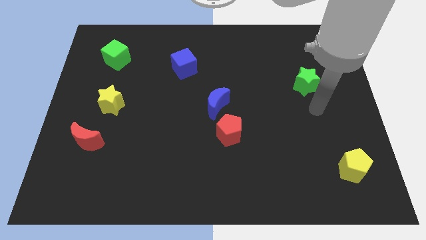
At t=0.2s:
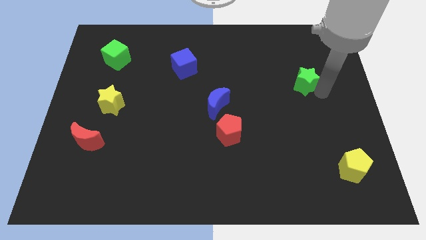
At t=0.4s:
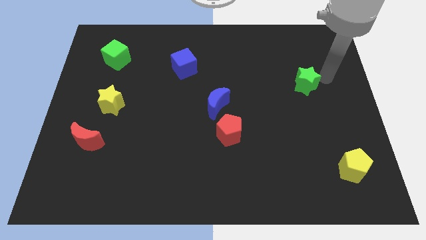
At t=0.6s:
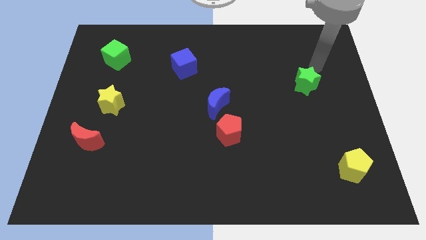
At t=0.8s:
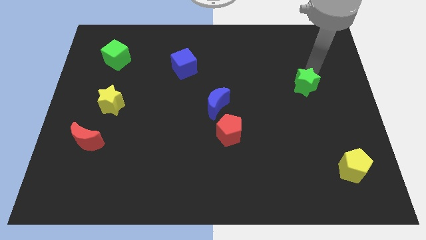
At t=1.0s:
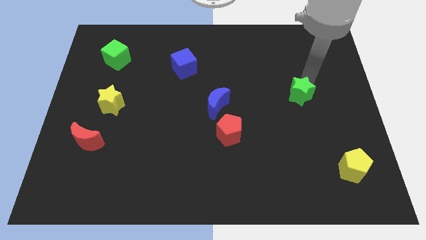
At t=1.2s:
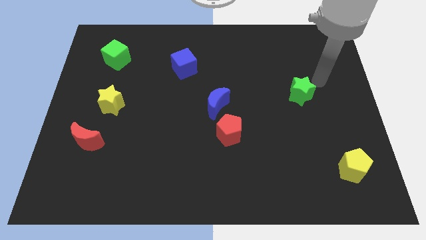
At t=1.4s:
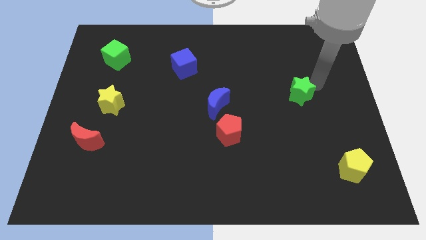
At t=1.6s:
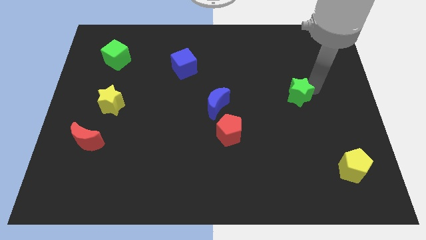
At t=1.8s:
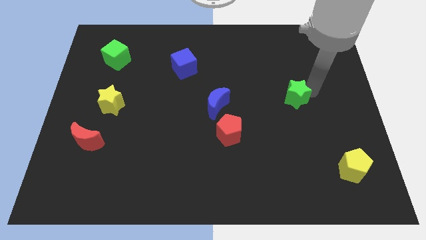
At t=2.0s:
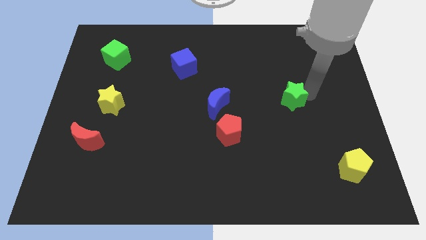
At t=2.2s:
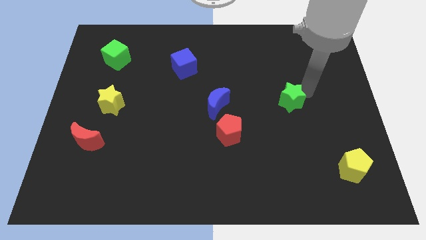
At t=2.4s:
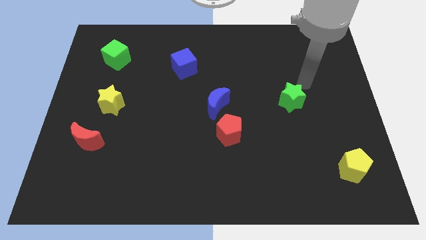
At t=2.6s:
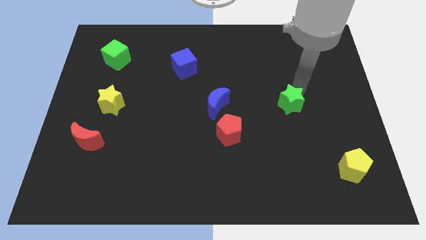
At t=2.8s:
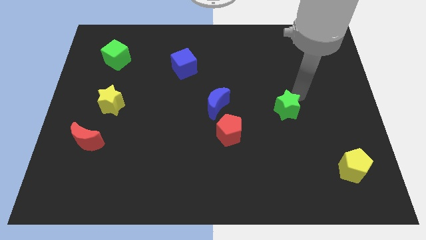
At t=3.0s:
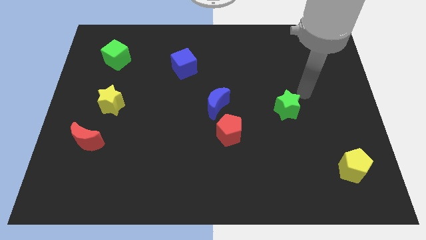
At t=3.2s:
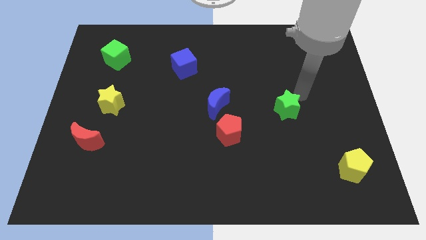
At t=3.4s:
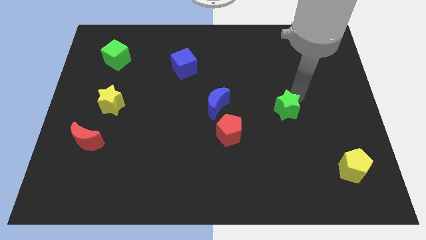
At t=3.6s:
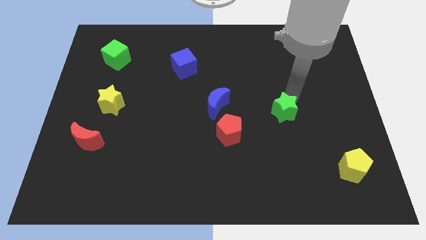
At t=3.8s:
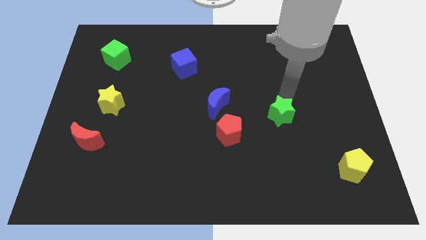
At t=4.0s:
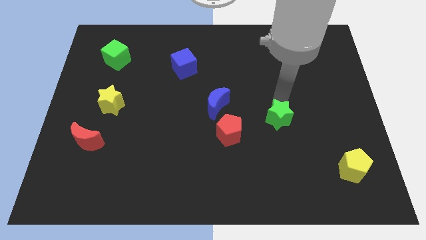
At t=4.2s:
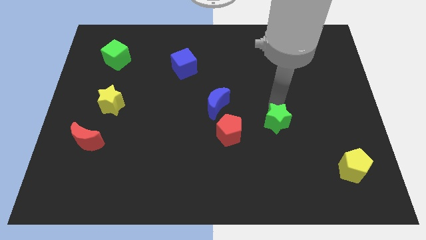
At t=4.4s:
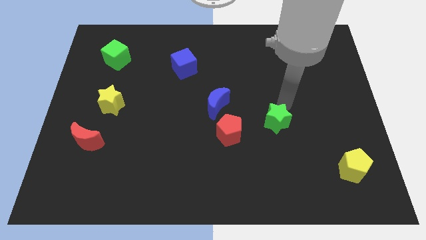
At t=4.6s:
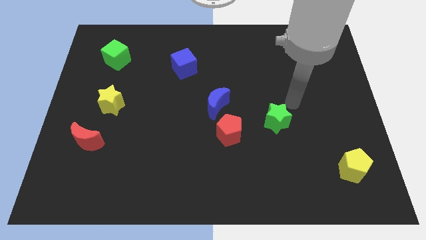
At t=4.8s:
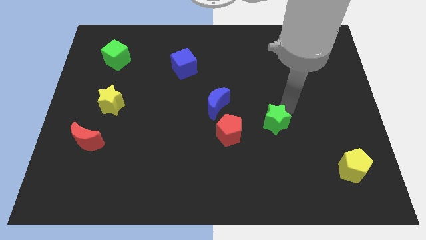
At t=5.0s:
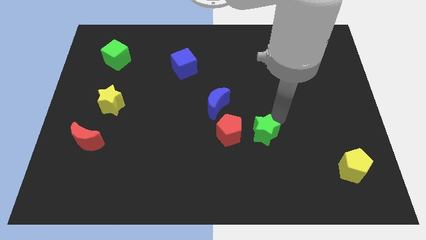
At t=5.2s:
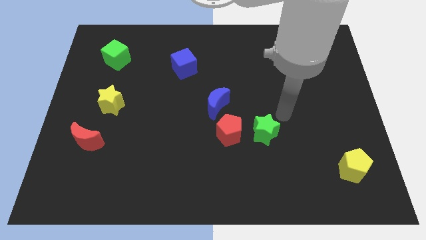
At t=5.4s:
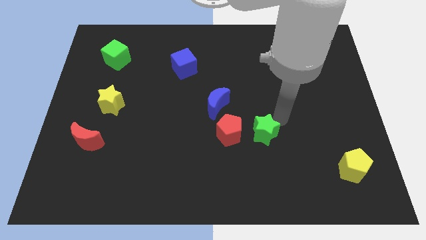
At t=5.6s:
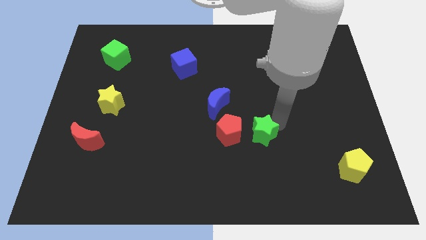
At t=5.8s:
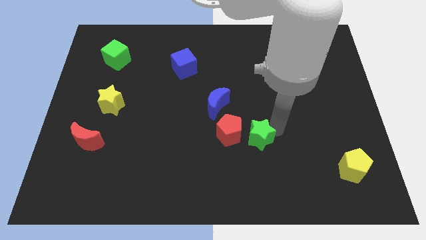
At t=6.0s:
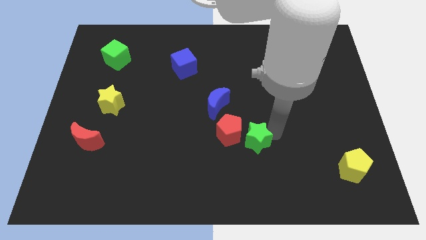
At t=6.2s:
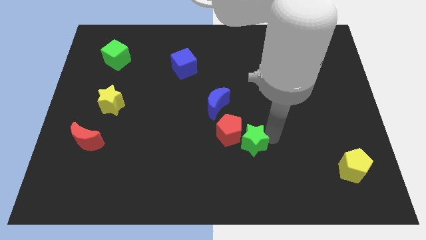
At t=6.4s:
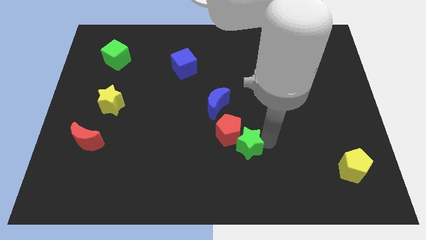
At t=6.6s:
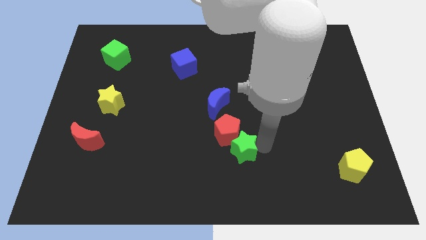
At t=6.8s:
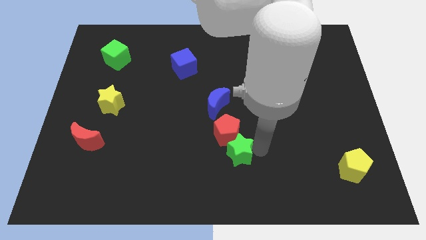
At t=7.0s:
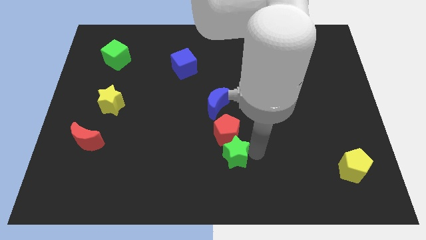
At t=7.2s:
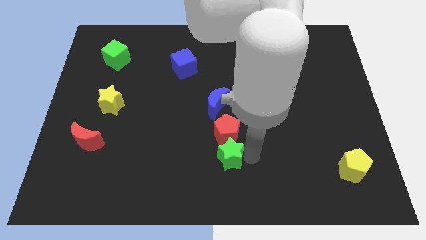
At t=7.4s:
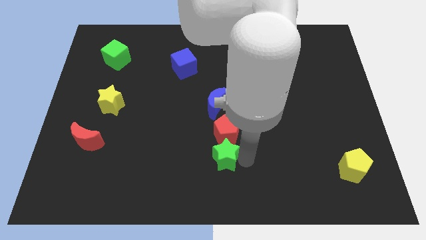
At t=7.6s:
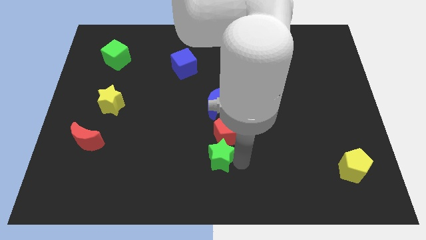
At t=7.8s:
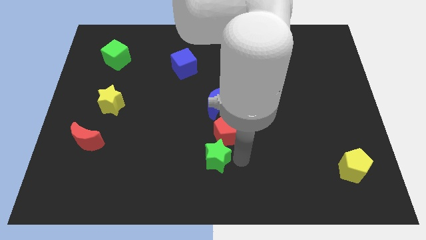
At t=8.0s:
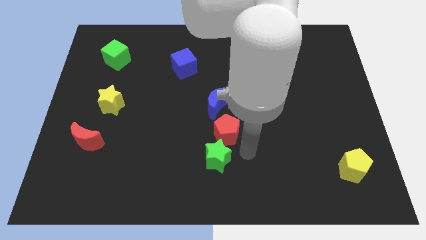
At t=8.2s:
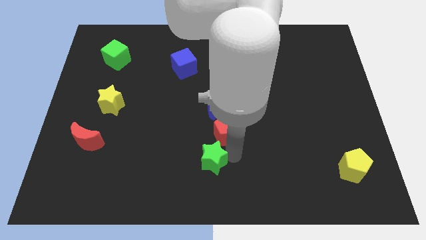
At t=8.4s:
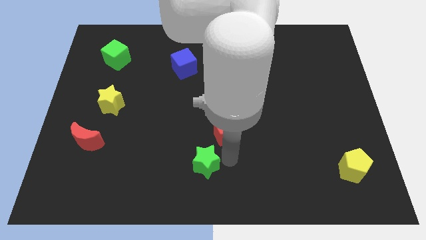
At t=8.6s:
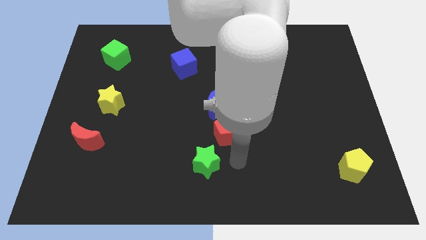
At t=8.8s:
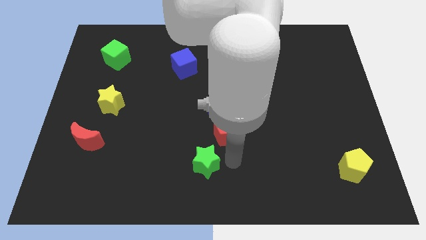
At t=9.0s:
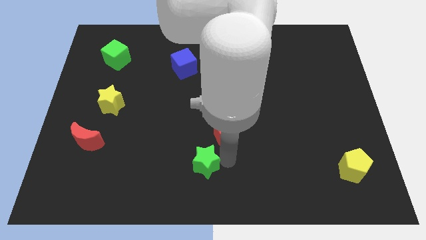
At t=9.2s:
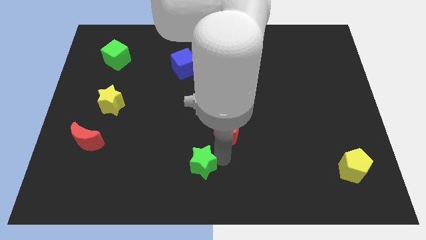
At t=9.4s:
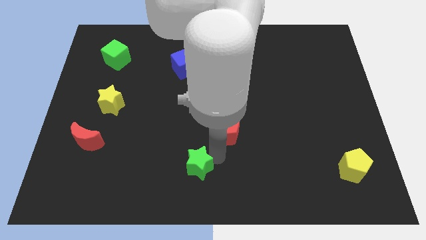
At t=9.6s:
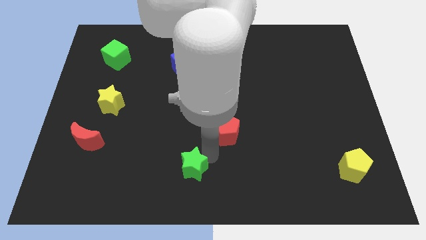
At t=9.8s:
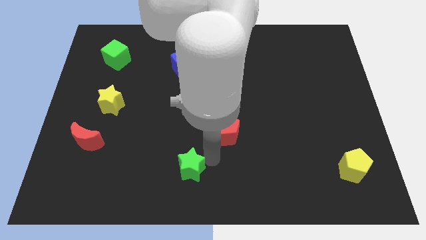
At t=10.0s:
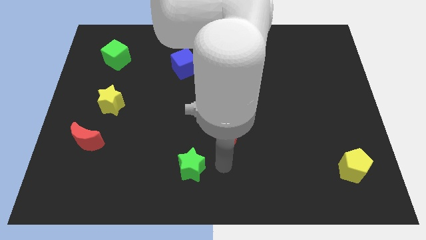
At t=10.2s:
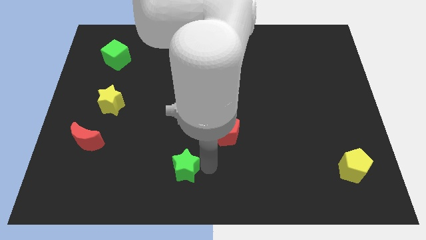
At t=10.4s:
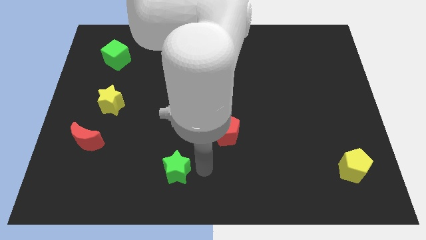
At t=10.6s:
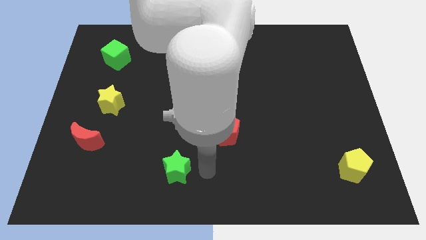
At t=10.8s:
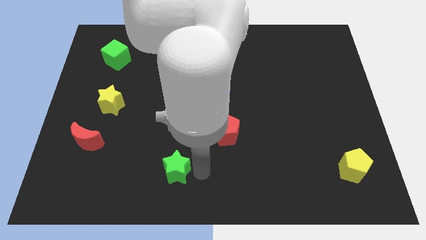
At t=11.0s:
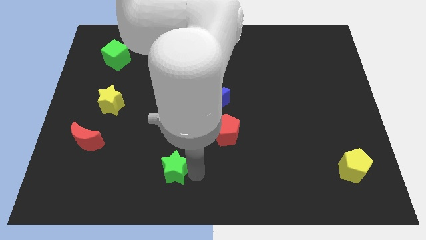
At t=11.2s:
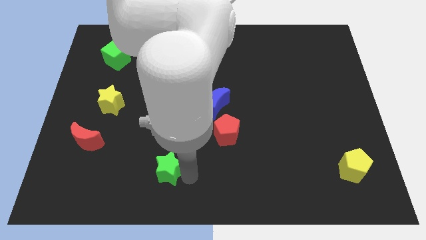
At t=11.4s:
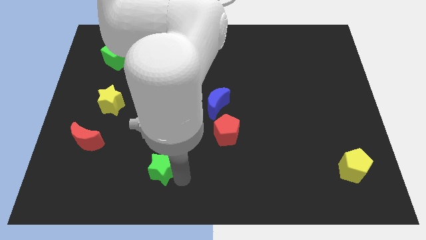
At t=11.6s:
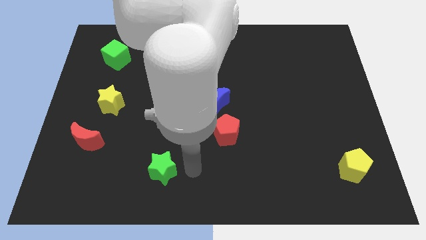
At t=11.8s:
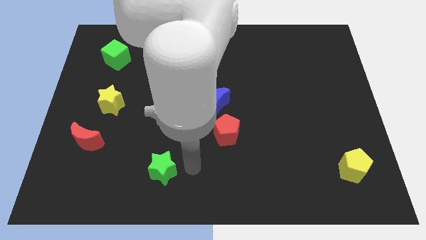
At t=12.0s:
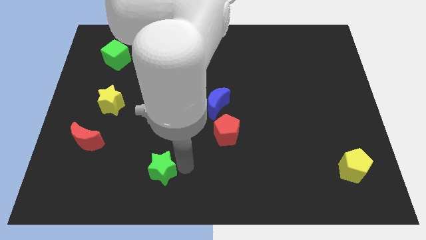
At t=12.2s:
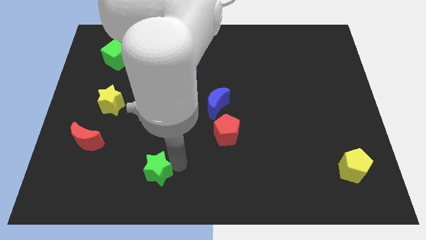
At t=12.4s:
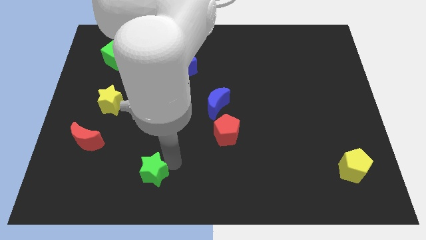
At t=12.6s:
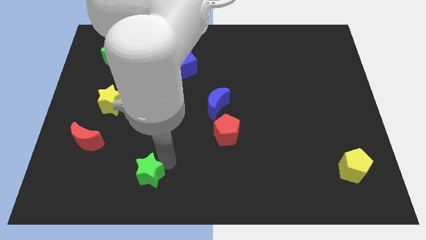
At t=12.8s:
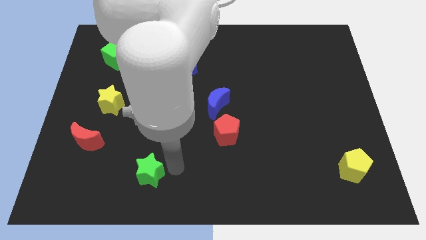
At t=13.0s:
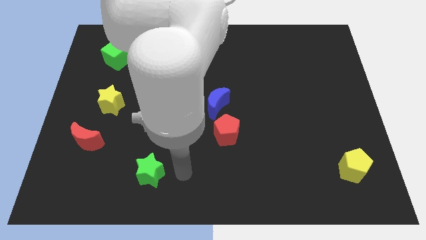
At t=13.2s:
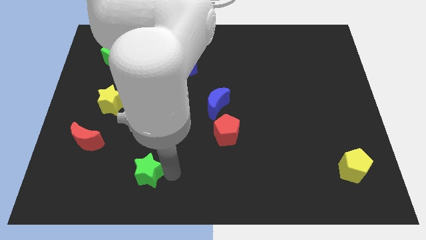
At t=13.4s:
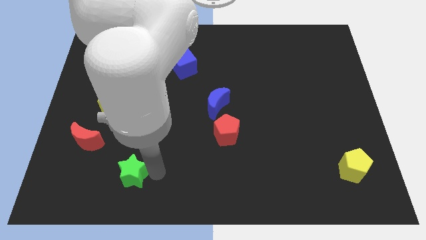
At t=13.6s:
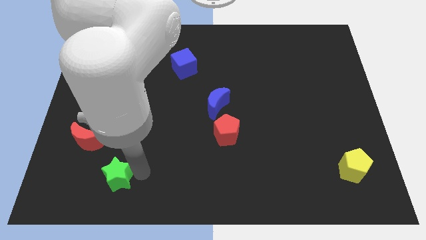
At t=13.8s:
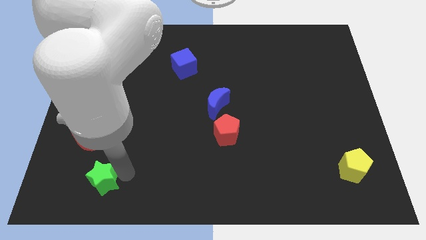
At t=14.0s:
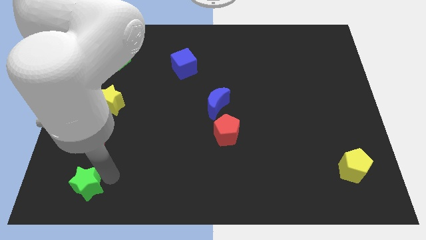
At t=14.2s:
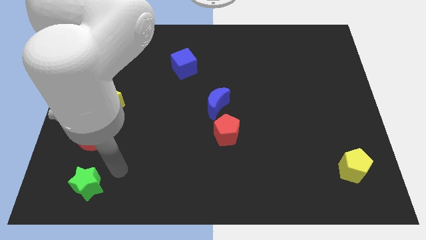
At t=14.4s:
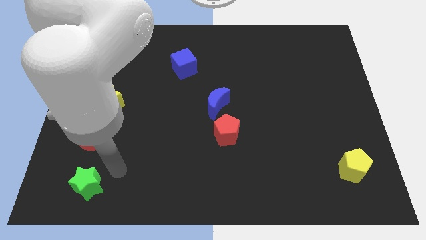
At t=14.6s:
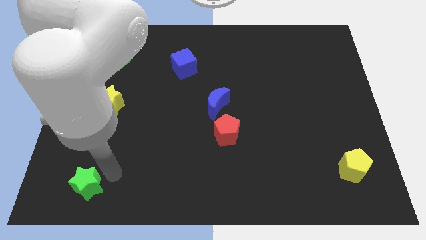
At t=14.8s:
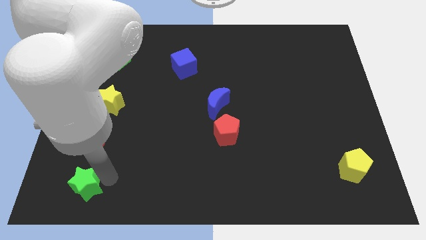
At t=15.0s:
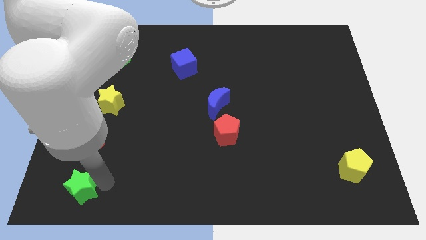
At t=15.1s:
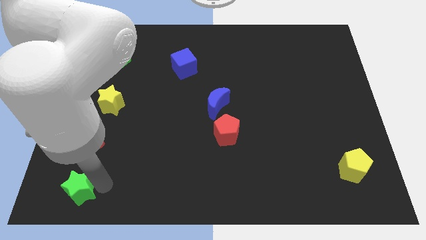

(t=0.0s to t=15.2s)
put the green star to the bottom left corner
